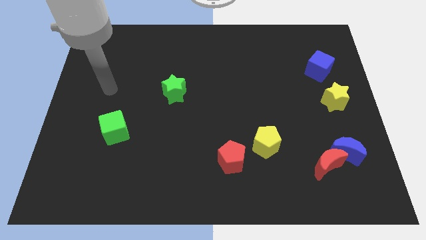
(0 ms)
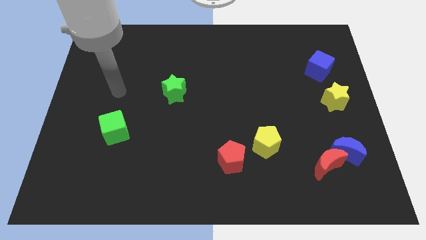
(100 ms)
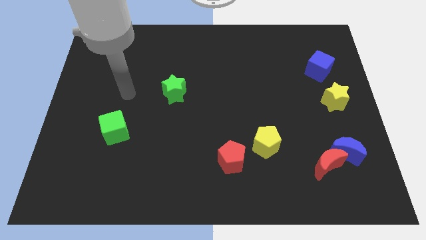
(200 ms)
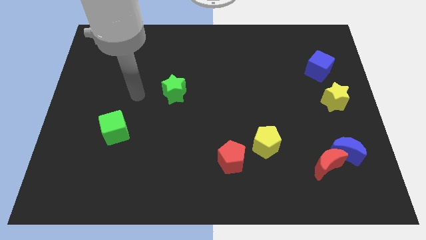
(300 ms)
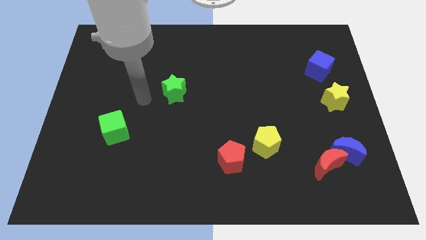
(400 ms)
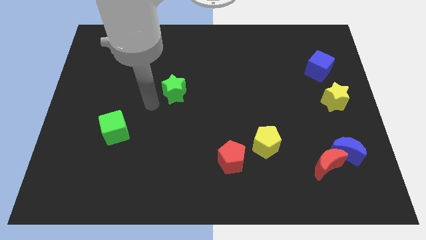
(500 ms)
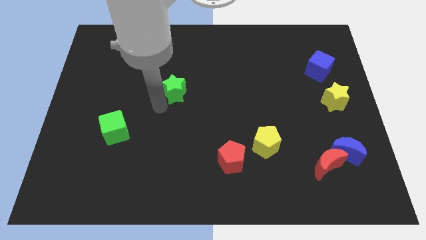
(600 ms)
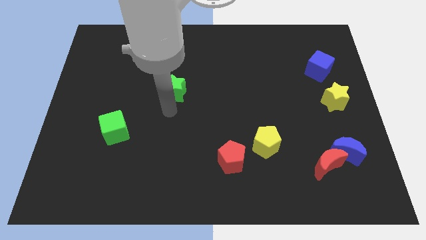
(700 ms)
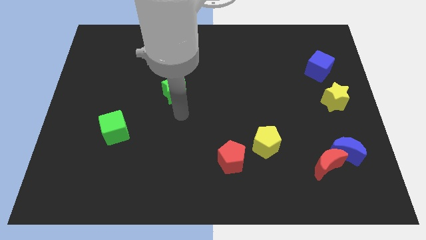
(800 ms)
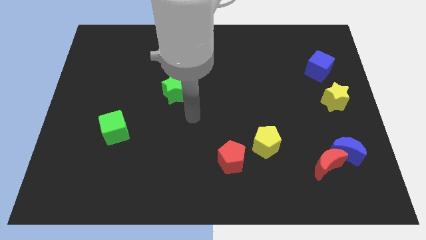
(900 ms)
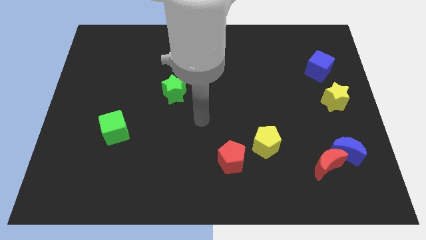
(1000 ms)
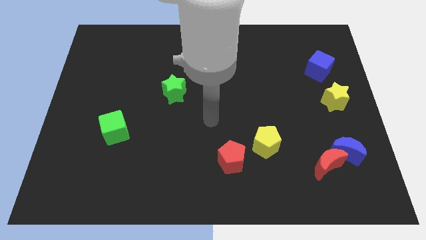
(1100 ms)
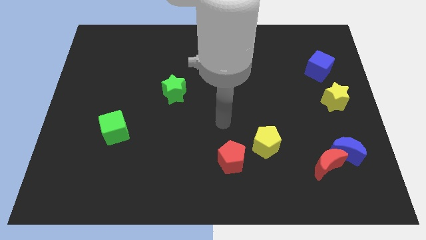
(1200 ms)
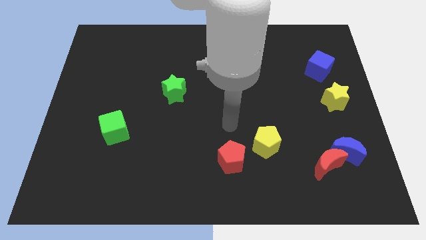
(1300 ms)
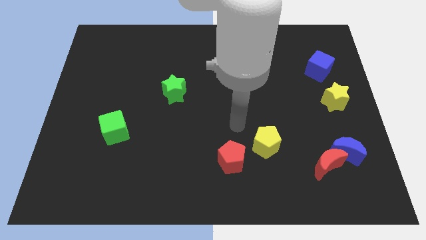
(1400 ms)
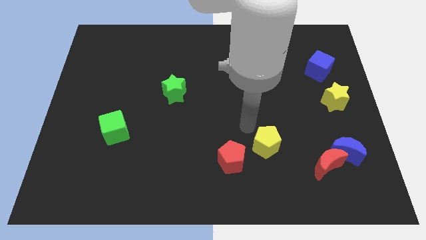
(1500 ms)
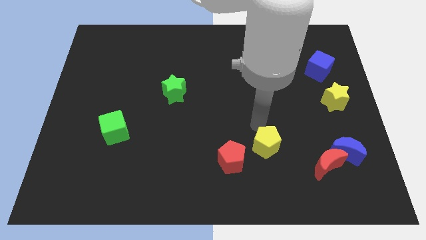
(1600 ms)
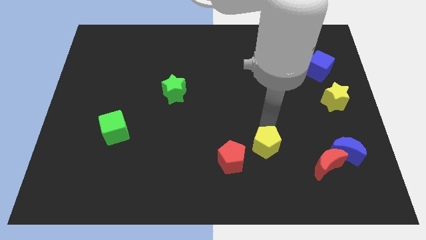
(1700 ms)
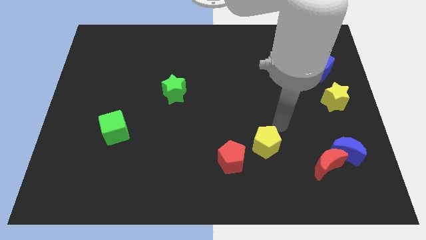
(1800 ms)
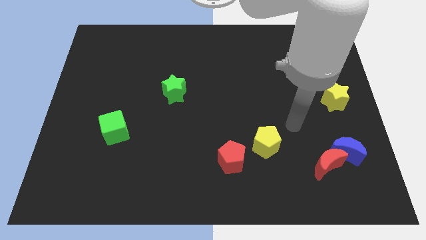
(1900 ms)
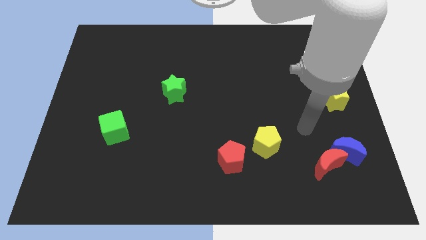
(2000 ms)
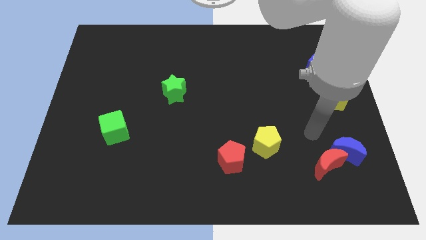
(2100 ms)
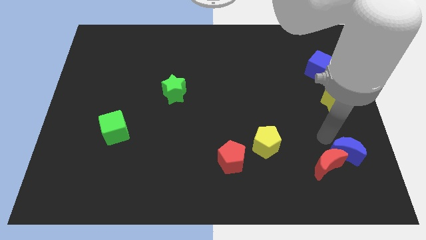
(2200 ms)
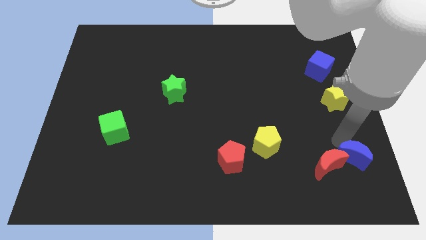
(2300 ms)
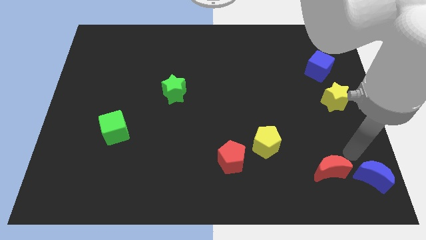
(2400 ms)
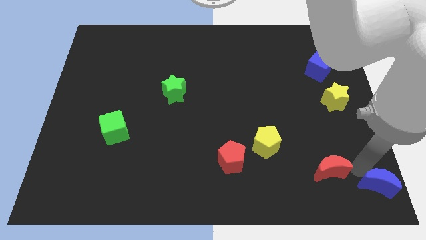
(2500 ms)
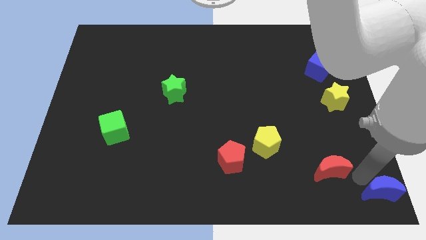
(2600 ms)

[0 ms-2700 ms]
pull the red moon apart from the blue moon

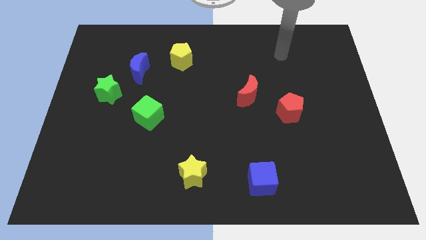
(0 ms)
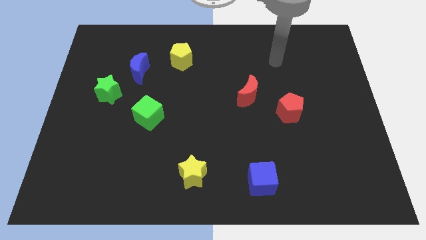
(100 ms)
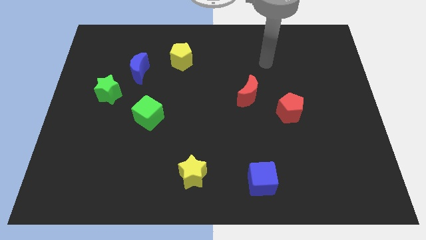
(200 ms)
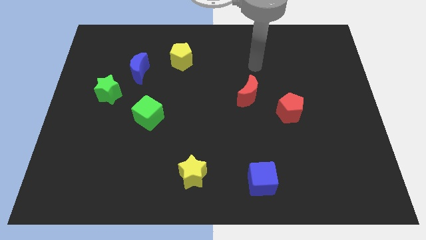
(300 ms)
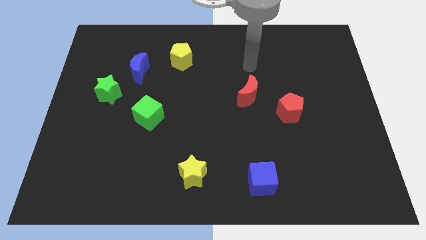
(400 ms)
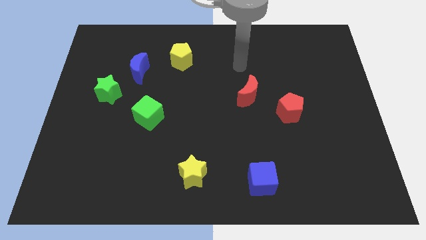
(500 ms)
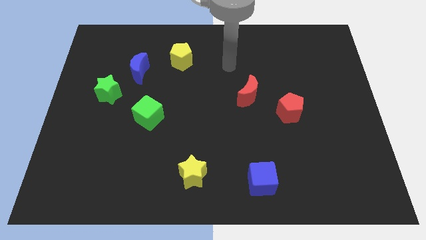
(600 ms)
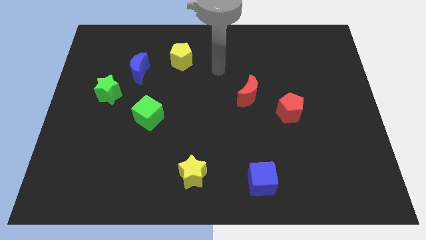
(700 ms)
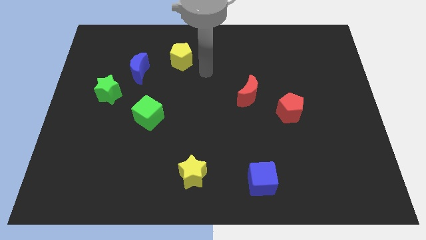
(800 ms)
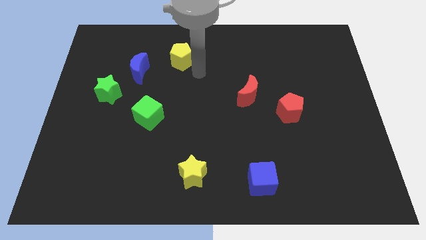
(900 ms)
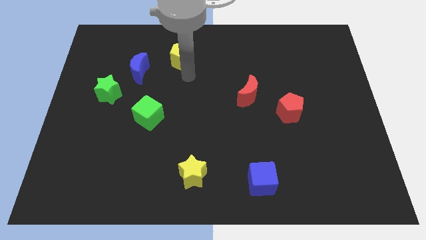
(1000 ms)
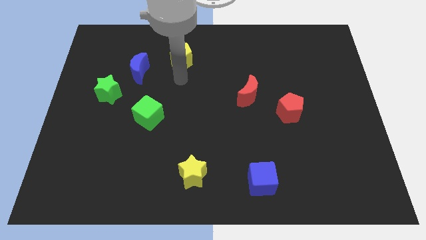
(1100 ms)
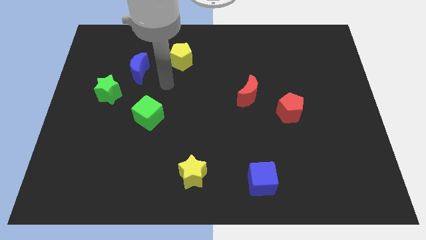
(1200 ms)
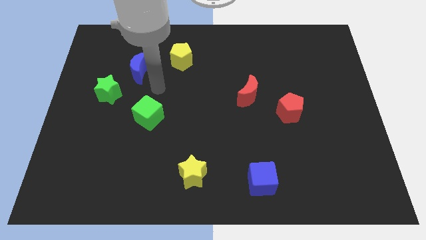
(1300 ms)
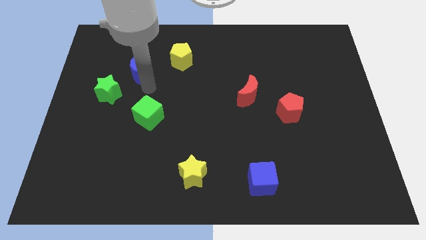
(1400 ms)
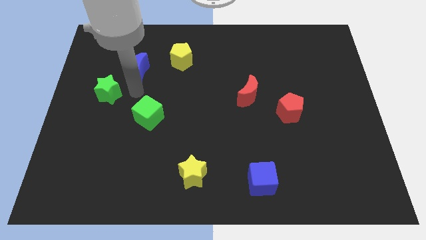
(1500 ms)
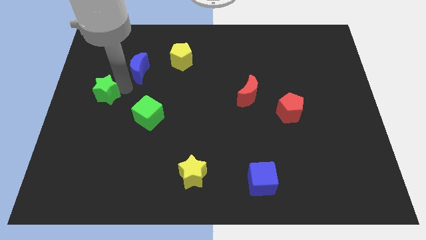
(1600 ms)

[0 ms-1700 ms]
move the blue moon away from the green star

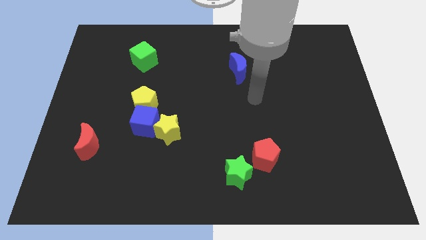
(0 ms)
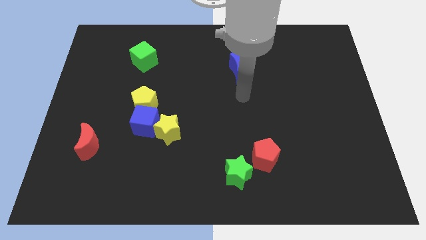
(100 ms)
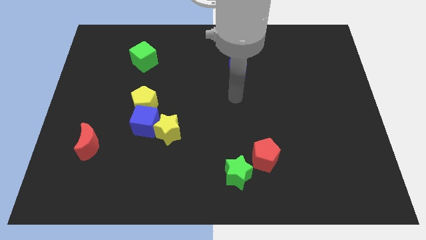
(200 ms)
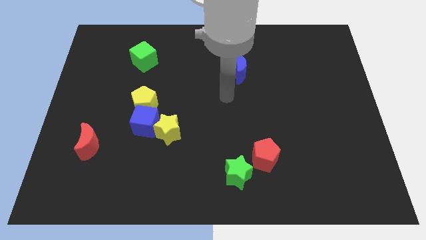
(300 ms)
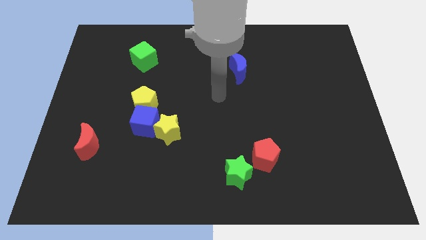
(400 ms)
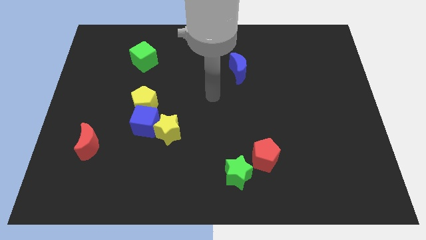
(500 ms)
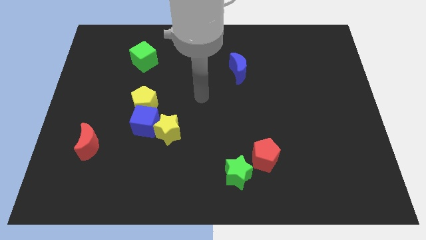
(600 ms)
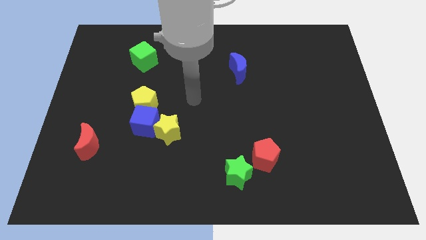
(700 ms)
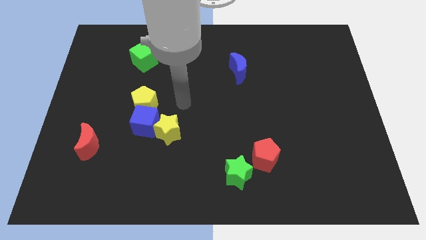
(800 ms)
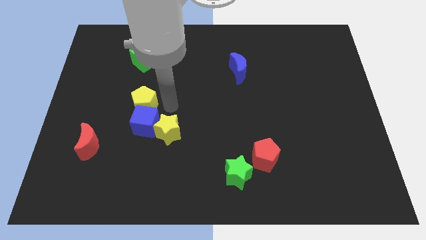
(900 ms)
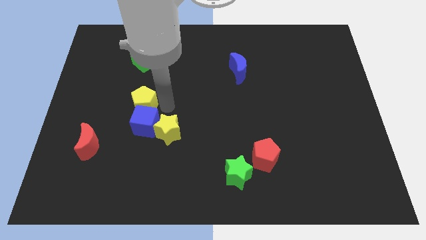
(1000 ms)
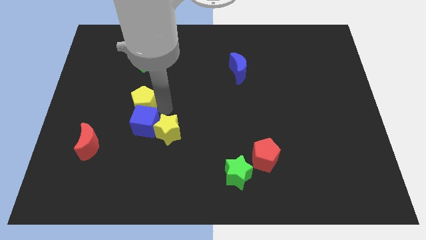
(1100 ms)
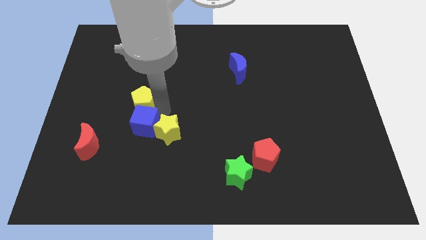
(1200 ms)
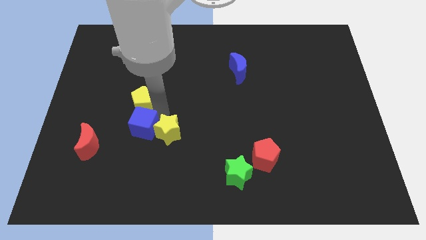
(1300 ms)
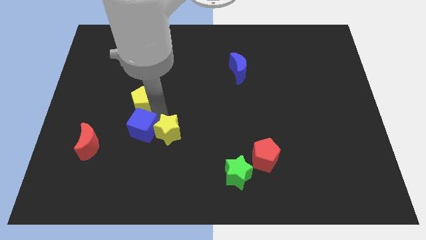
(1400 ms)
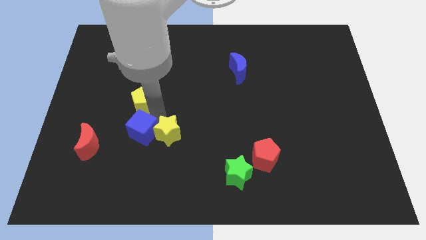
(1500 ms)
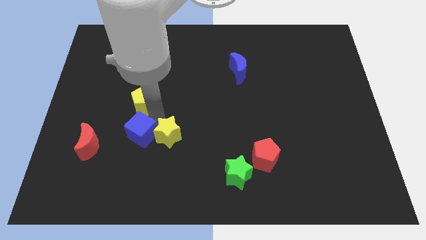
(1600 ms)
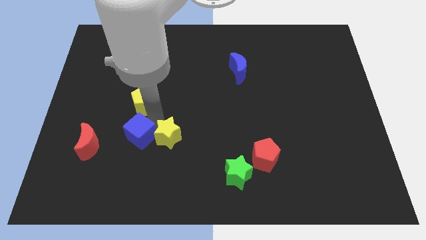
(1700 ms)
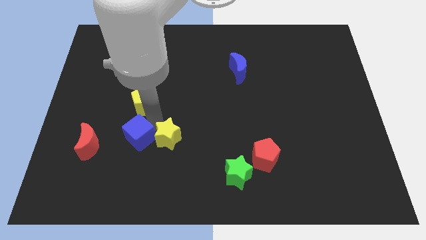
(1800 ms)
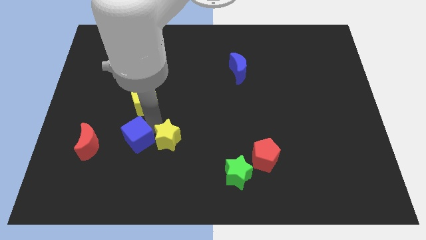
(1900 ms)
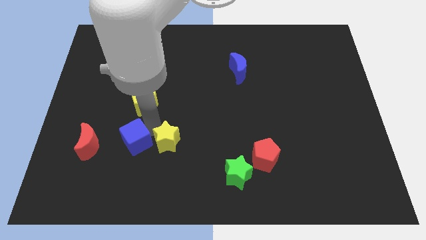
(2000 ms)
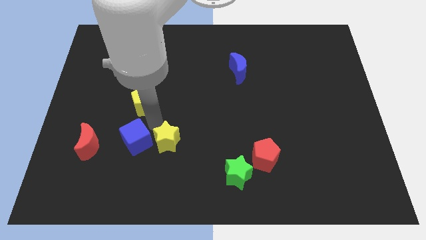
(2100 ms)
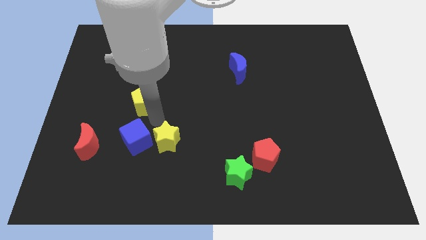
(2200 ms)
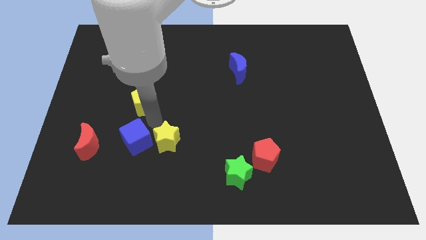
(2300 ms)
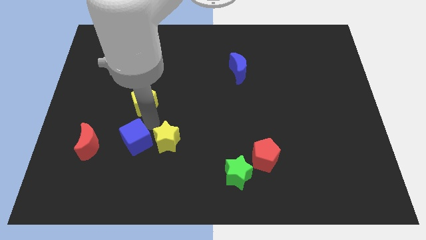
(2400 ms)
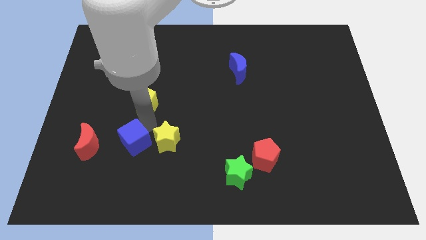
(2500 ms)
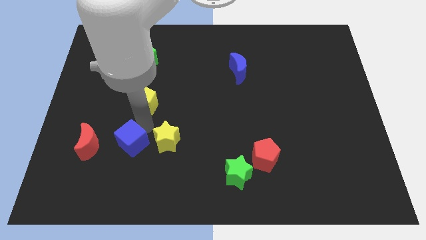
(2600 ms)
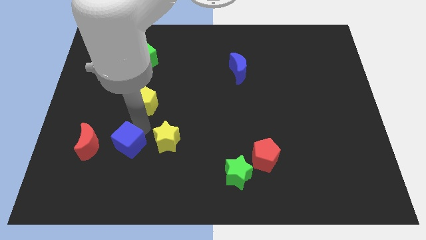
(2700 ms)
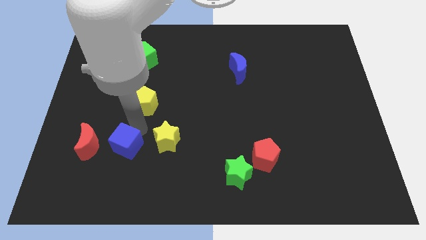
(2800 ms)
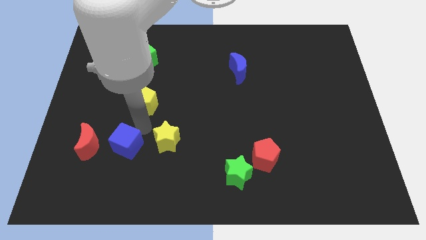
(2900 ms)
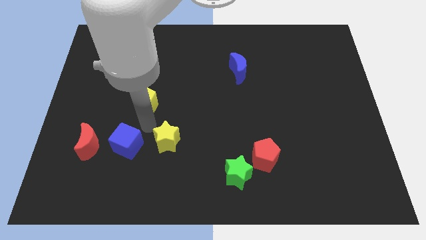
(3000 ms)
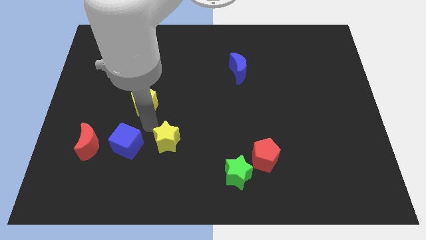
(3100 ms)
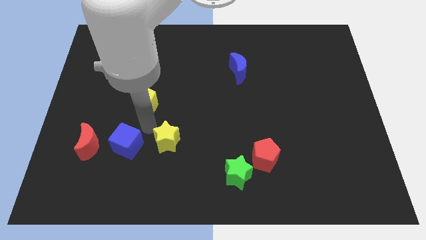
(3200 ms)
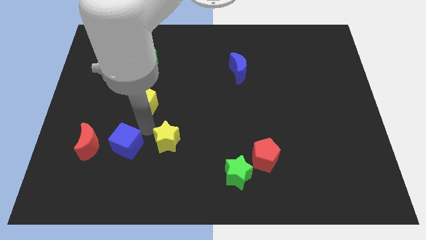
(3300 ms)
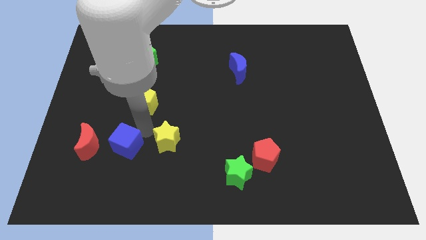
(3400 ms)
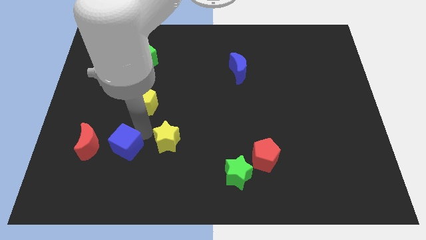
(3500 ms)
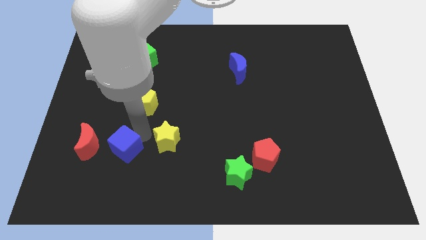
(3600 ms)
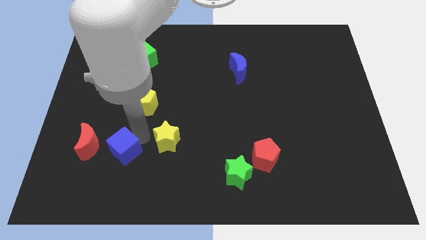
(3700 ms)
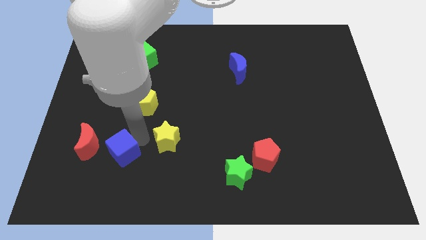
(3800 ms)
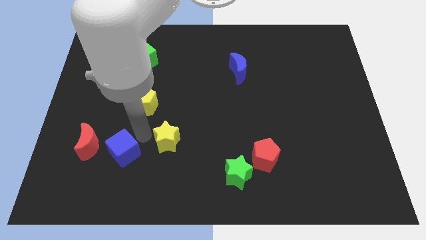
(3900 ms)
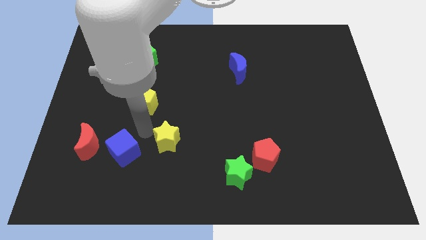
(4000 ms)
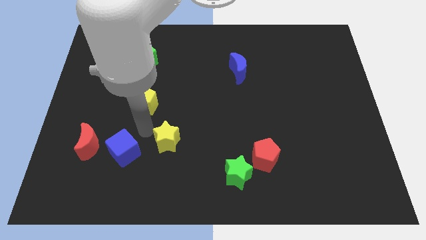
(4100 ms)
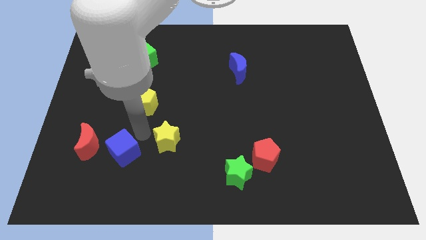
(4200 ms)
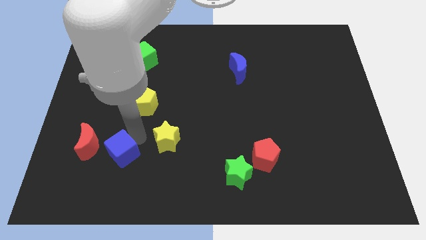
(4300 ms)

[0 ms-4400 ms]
separate the blue cube from the yellow star and yellow pentagon

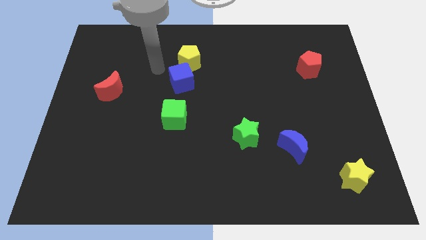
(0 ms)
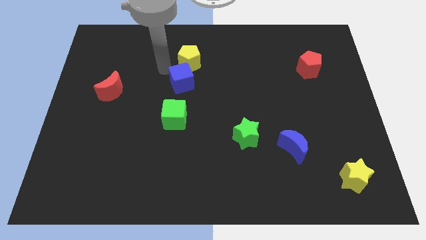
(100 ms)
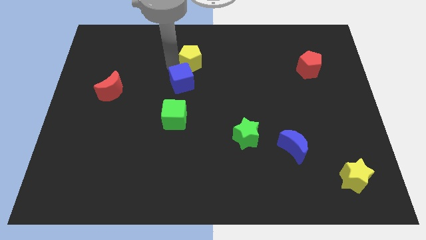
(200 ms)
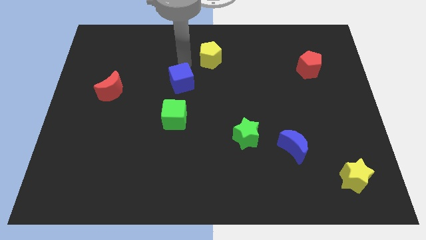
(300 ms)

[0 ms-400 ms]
pull the blue cube apart from the yellow pentagon

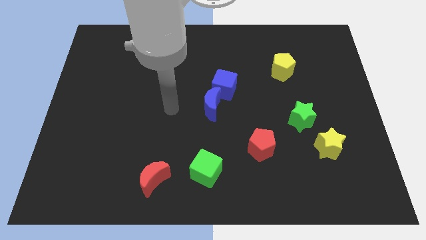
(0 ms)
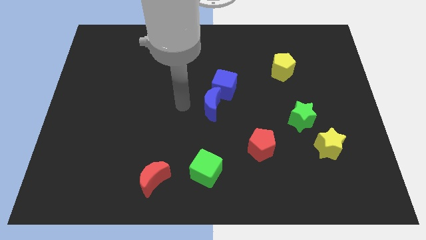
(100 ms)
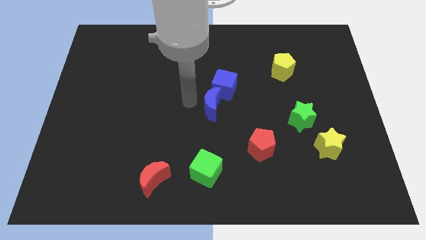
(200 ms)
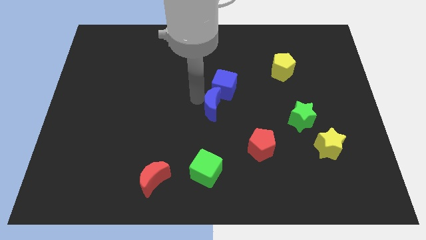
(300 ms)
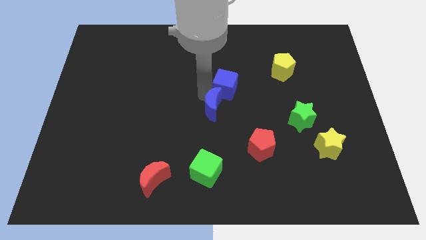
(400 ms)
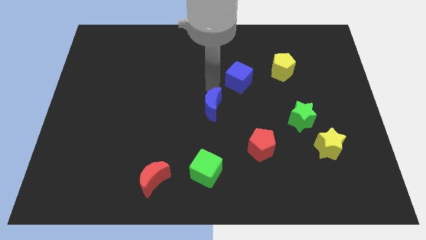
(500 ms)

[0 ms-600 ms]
separate the blue moon from the blue cube
